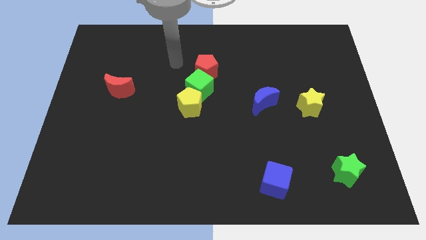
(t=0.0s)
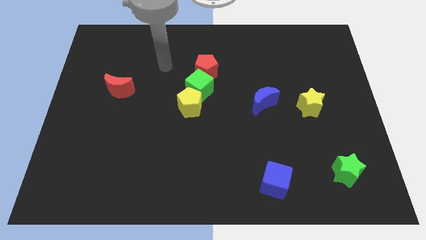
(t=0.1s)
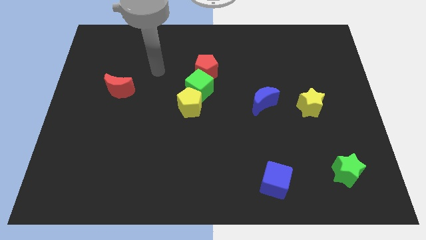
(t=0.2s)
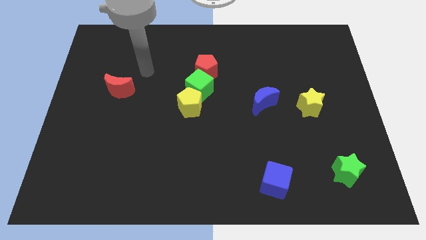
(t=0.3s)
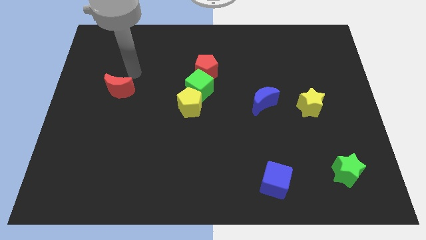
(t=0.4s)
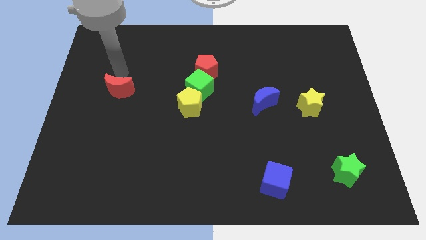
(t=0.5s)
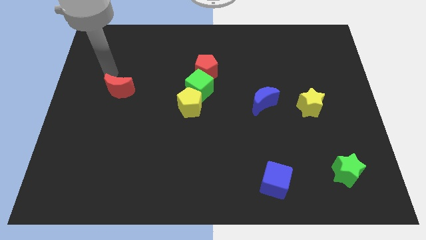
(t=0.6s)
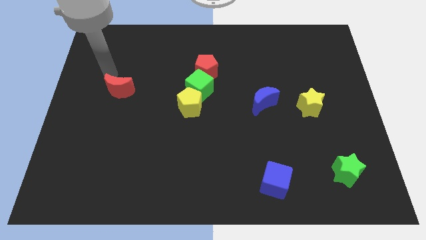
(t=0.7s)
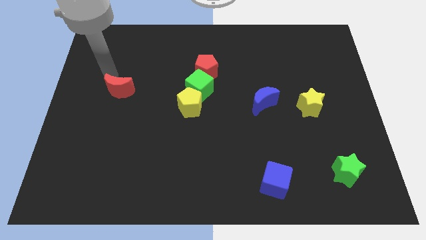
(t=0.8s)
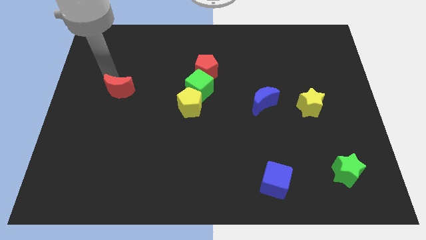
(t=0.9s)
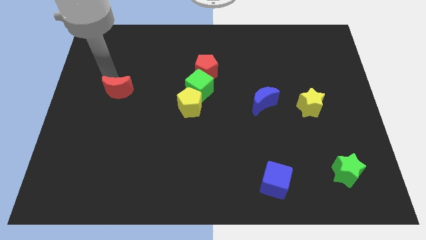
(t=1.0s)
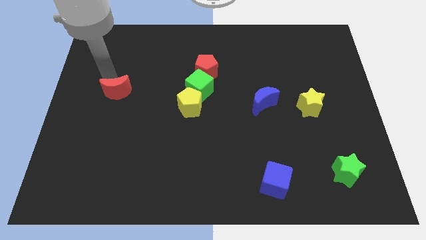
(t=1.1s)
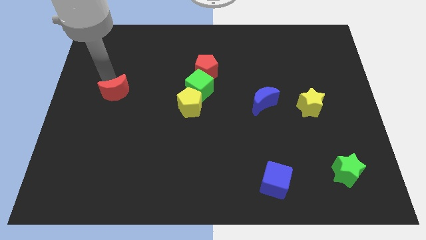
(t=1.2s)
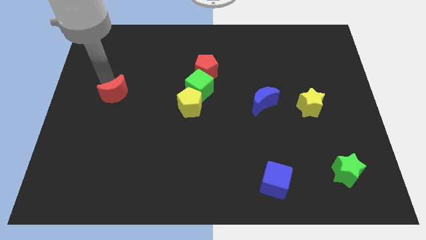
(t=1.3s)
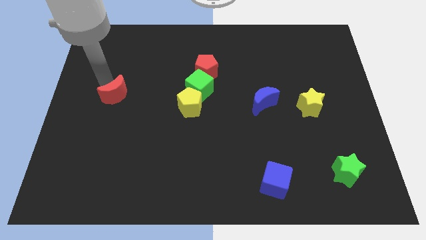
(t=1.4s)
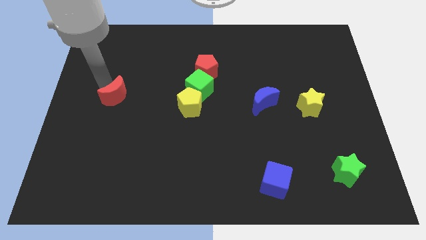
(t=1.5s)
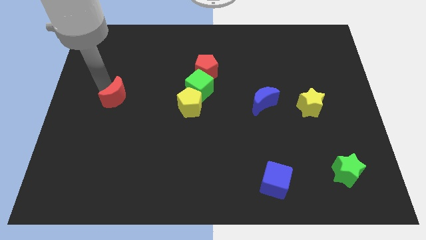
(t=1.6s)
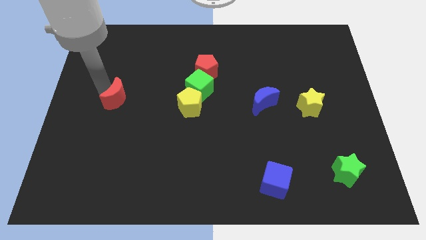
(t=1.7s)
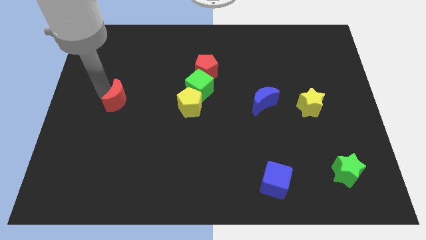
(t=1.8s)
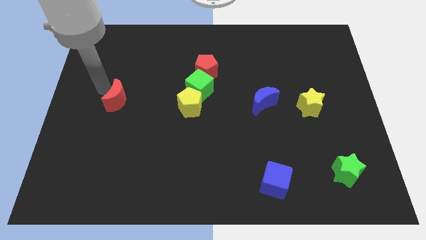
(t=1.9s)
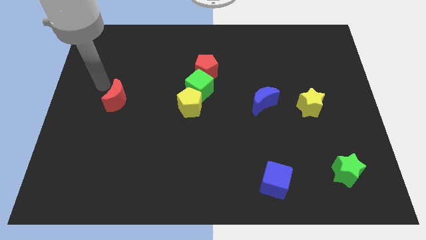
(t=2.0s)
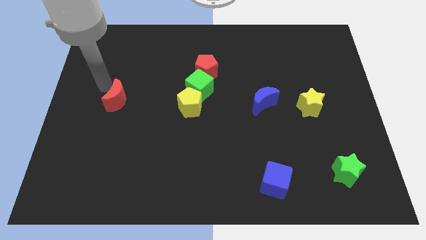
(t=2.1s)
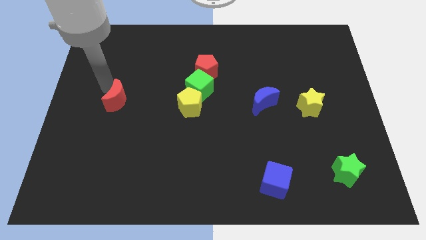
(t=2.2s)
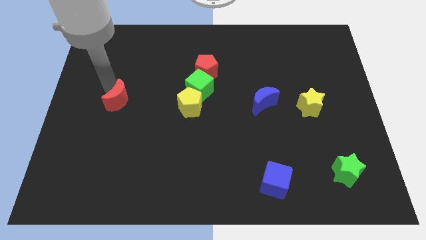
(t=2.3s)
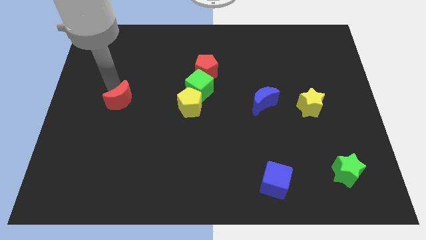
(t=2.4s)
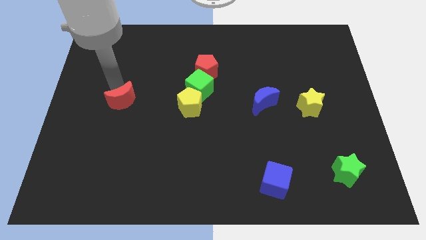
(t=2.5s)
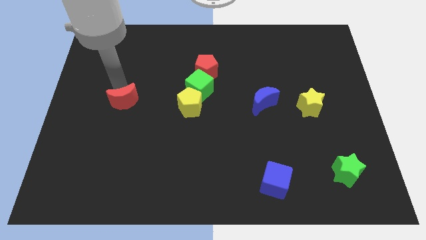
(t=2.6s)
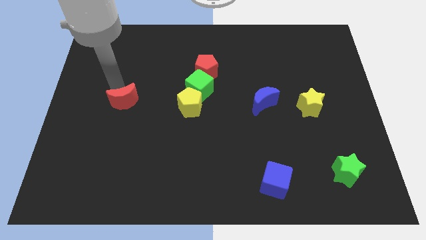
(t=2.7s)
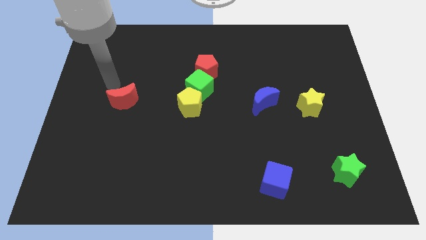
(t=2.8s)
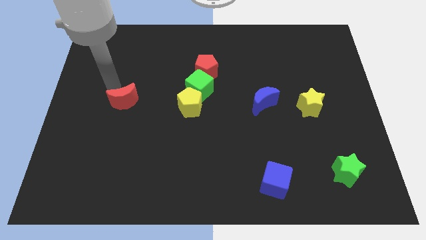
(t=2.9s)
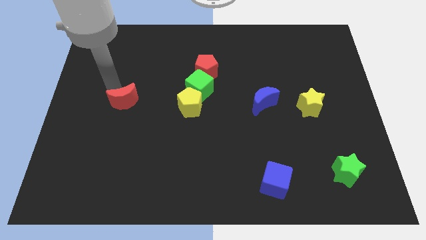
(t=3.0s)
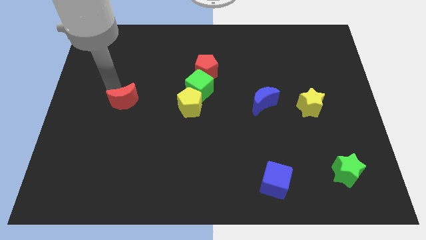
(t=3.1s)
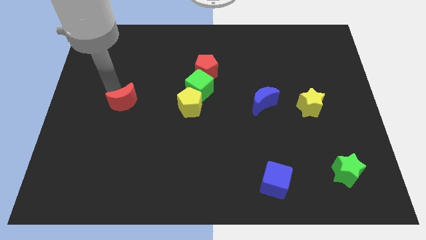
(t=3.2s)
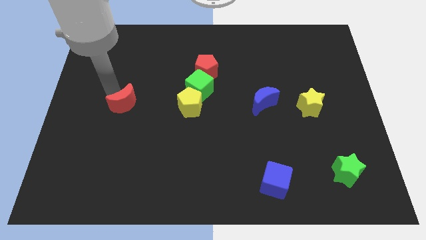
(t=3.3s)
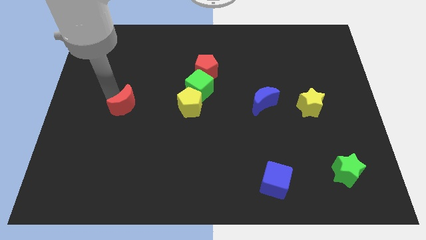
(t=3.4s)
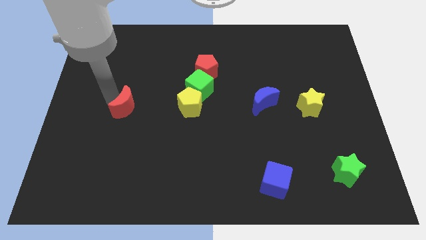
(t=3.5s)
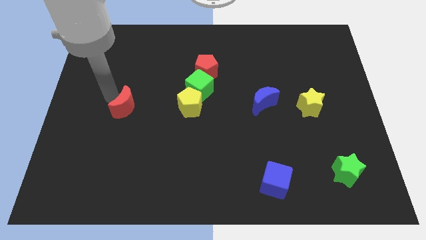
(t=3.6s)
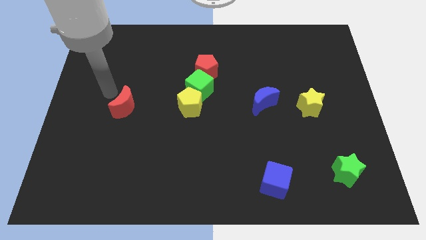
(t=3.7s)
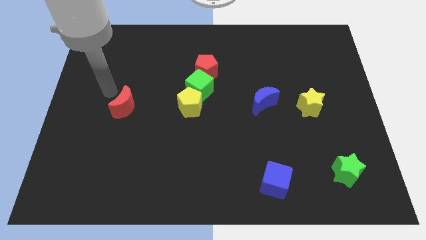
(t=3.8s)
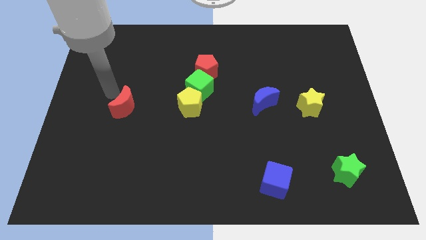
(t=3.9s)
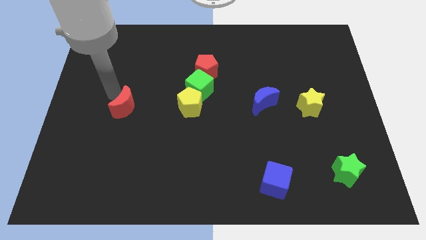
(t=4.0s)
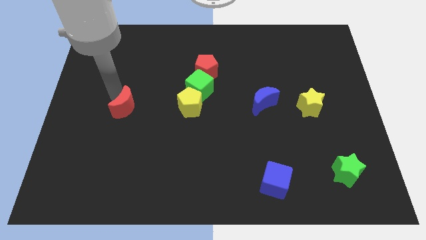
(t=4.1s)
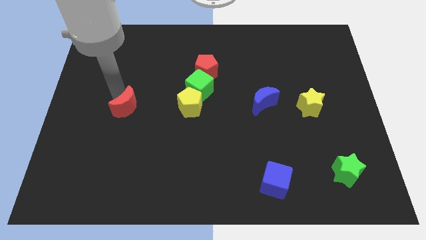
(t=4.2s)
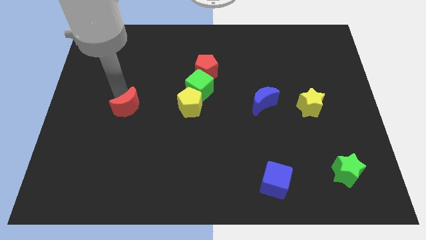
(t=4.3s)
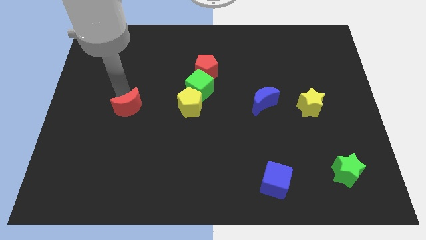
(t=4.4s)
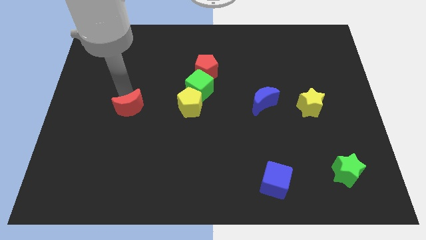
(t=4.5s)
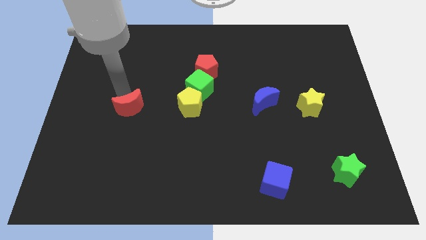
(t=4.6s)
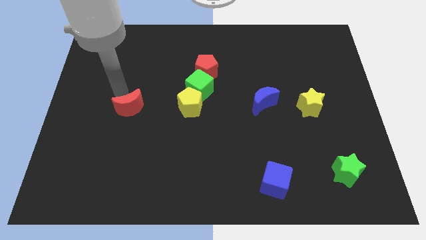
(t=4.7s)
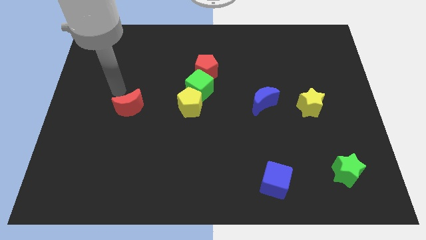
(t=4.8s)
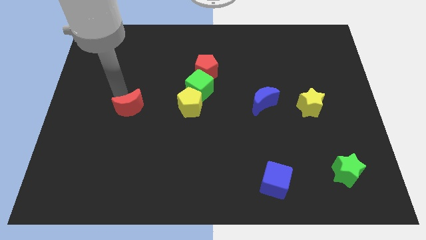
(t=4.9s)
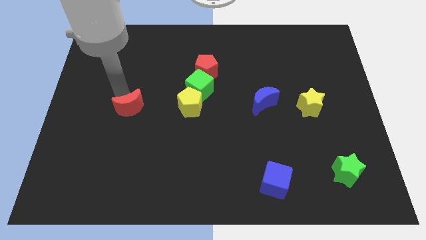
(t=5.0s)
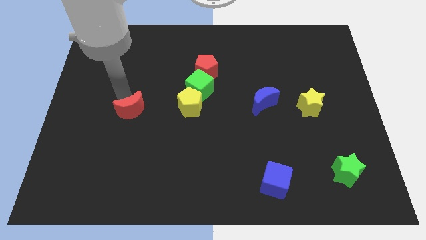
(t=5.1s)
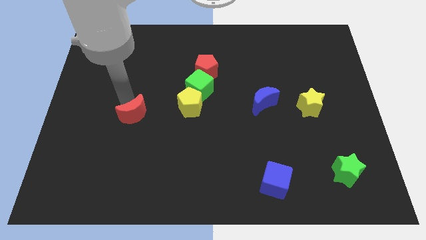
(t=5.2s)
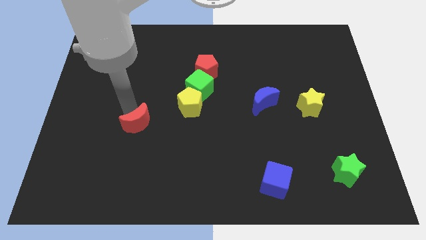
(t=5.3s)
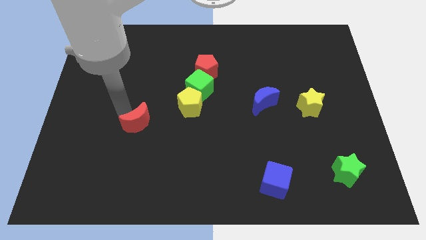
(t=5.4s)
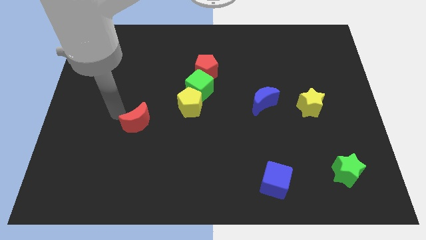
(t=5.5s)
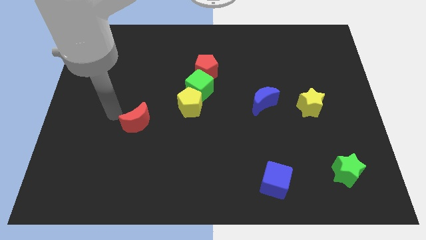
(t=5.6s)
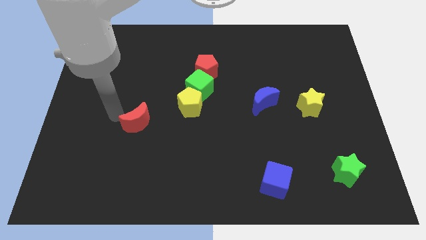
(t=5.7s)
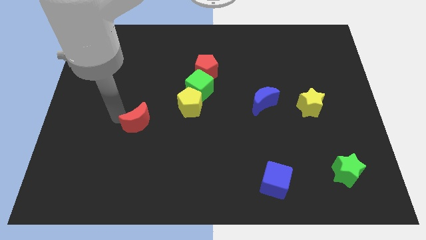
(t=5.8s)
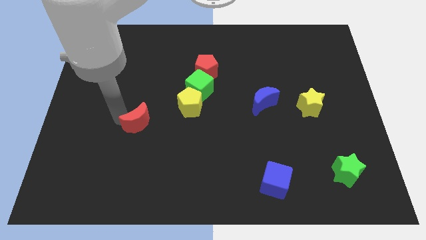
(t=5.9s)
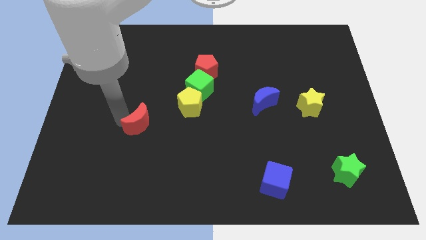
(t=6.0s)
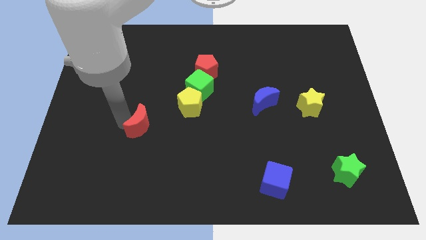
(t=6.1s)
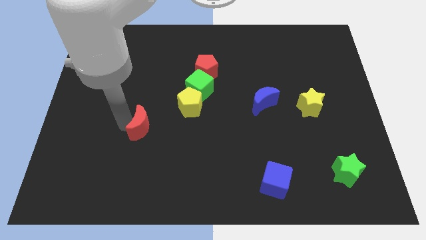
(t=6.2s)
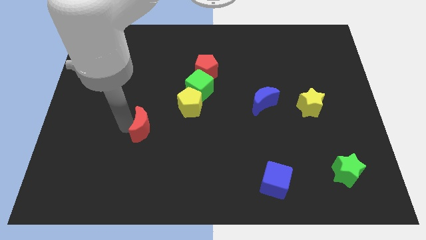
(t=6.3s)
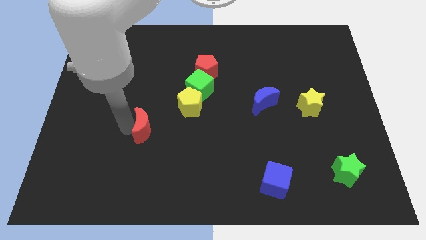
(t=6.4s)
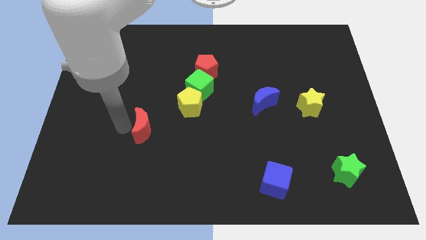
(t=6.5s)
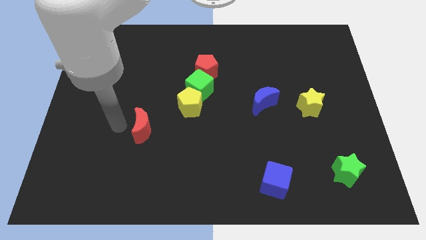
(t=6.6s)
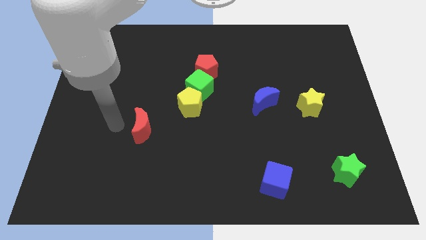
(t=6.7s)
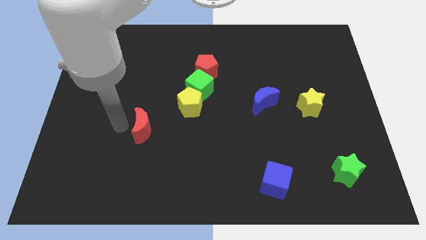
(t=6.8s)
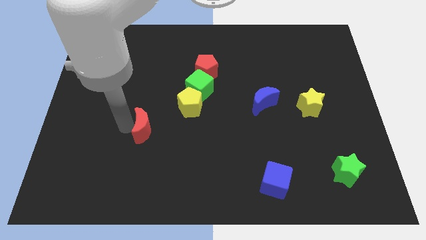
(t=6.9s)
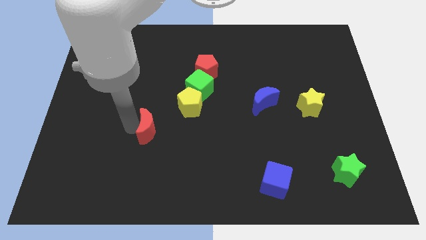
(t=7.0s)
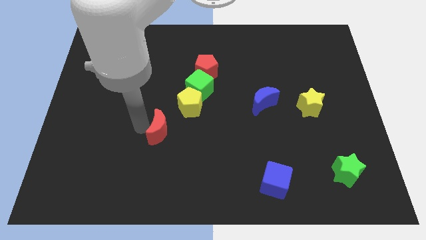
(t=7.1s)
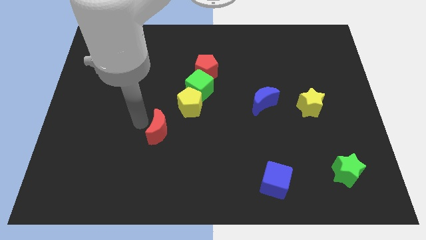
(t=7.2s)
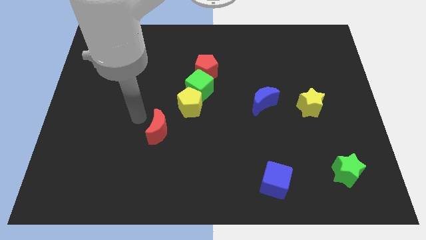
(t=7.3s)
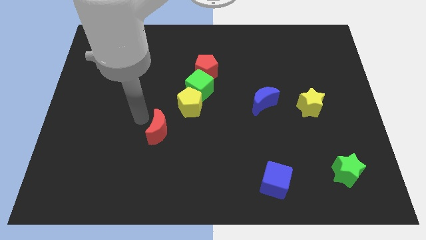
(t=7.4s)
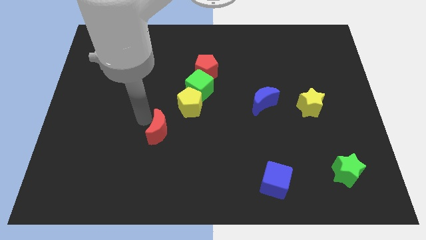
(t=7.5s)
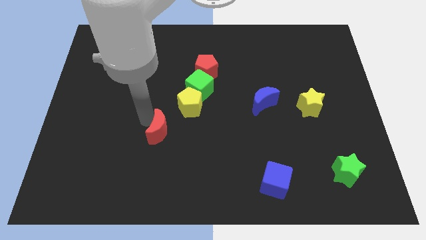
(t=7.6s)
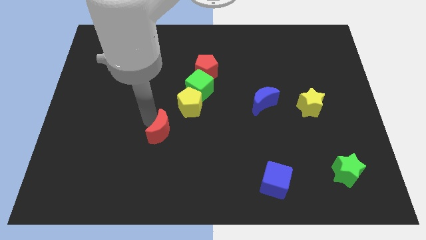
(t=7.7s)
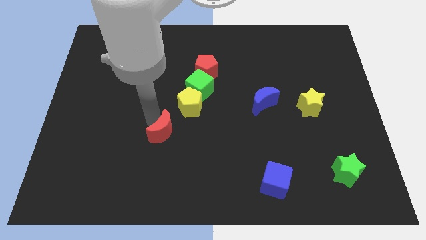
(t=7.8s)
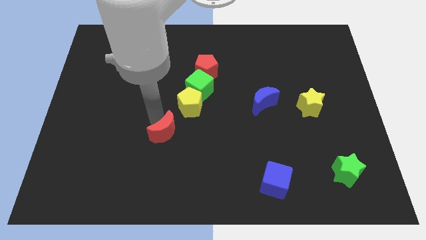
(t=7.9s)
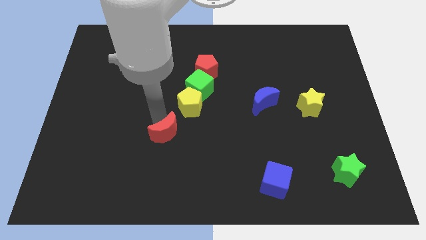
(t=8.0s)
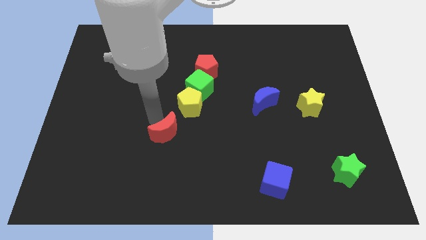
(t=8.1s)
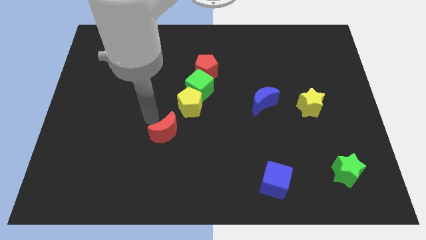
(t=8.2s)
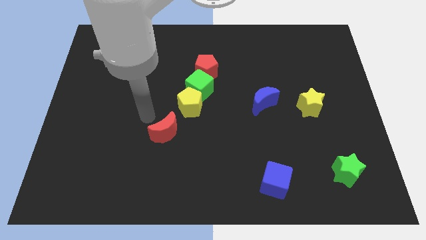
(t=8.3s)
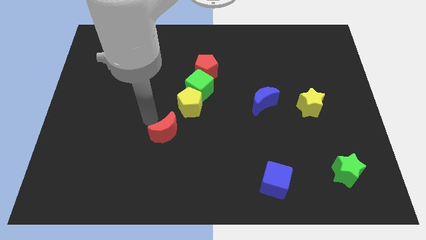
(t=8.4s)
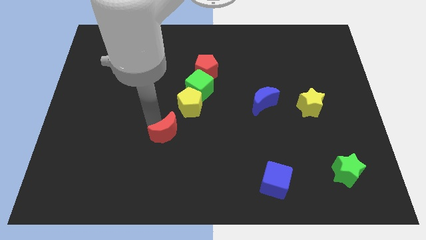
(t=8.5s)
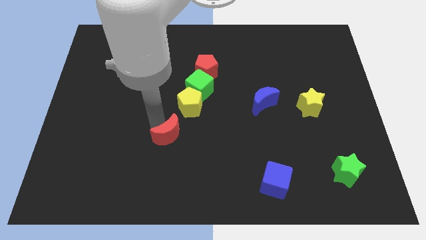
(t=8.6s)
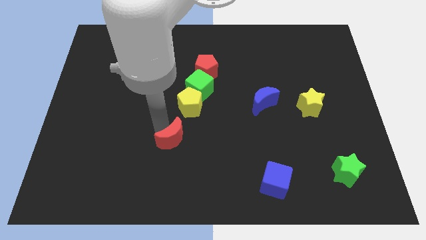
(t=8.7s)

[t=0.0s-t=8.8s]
slide the red moon diagonally downwards and to the right
